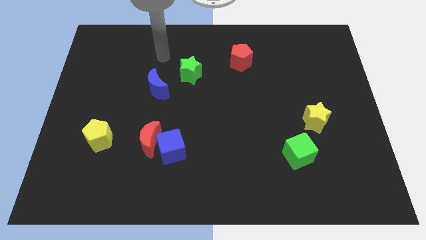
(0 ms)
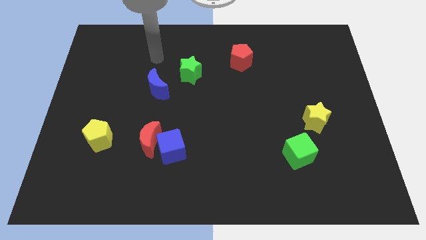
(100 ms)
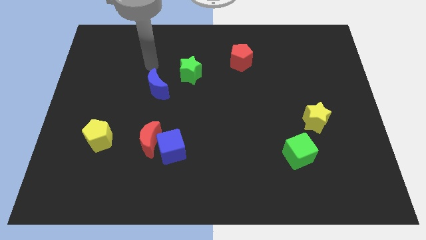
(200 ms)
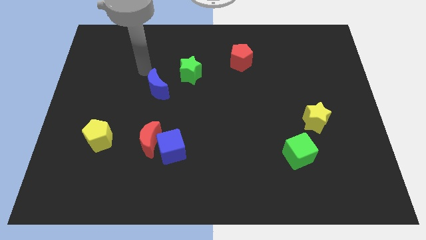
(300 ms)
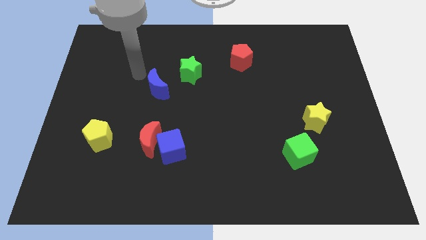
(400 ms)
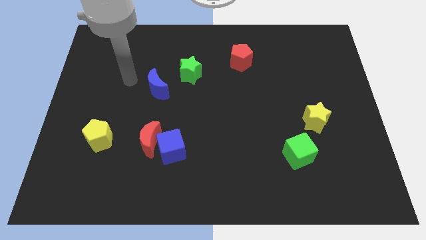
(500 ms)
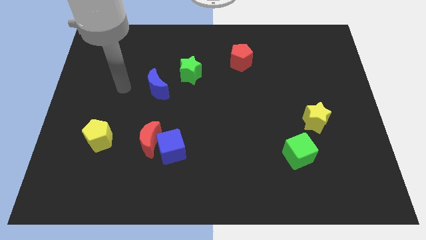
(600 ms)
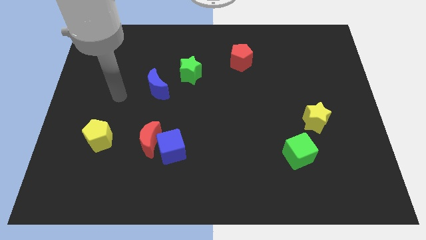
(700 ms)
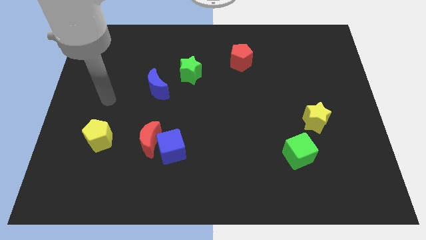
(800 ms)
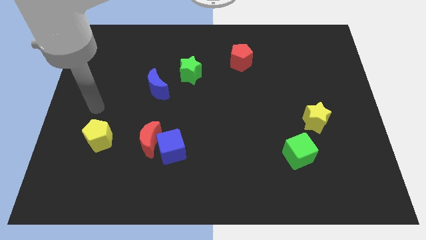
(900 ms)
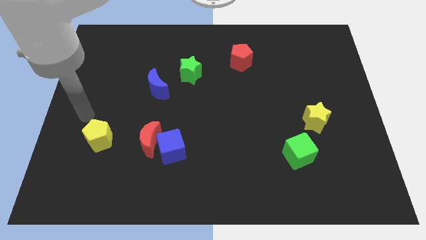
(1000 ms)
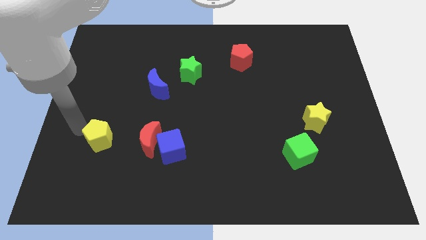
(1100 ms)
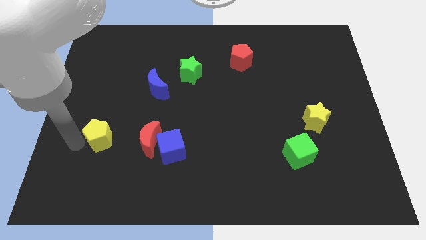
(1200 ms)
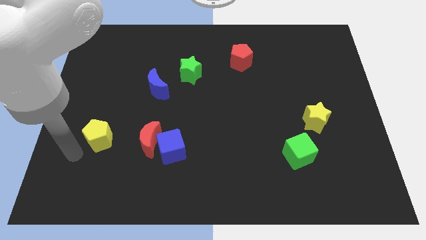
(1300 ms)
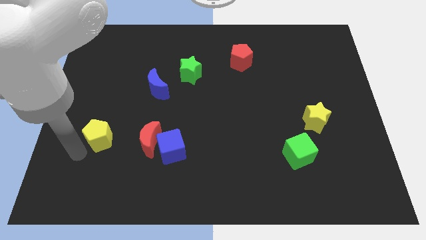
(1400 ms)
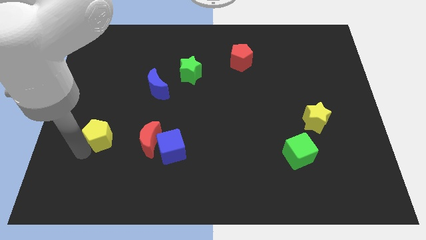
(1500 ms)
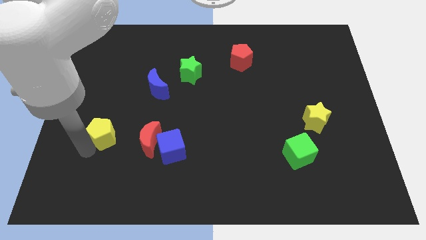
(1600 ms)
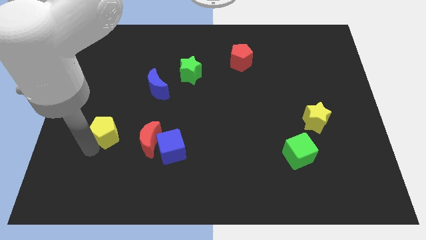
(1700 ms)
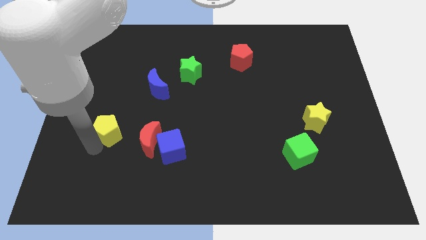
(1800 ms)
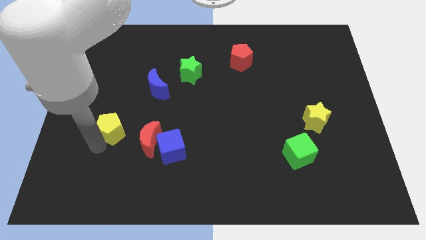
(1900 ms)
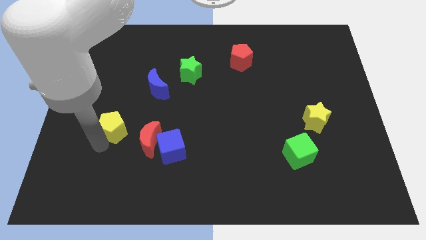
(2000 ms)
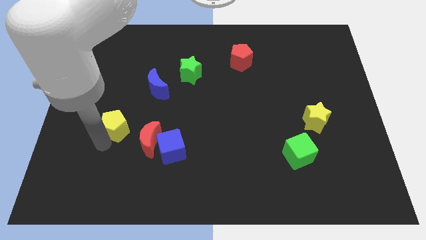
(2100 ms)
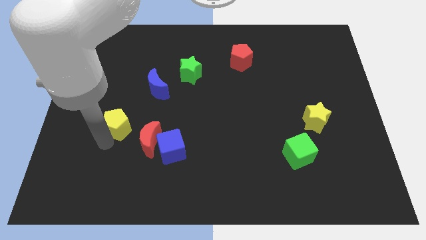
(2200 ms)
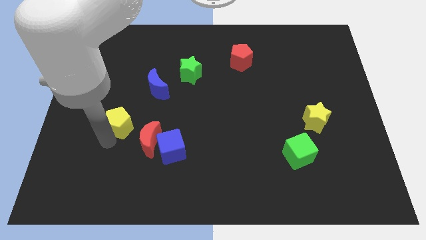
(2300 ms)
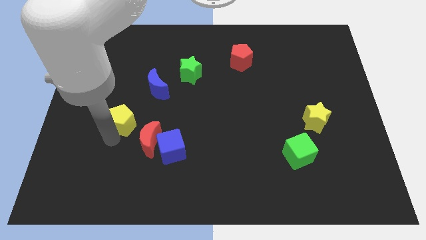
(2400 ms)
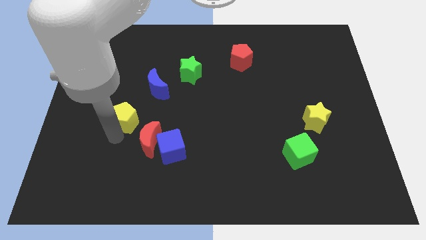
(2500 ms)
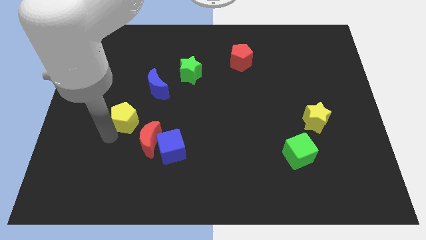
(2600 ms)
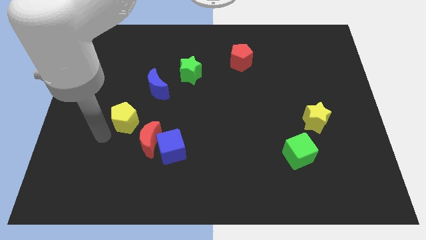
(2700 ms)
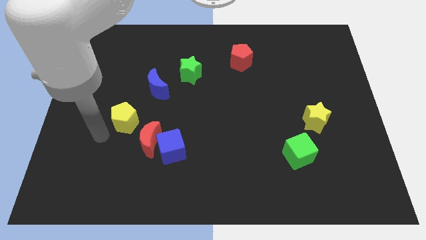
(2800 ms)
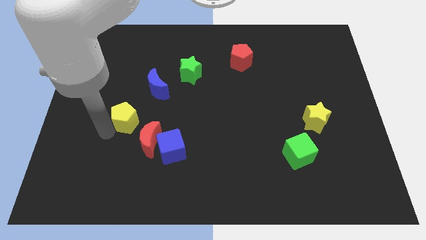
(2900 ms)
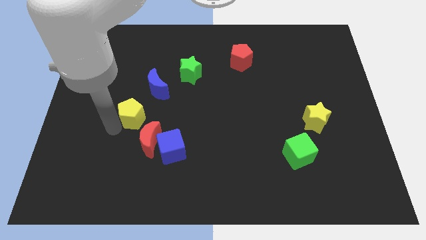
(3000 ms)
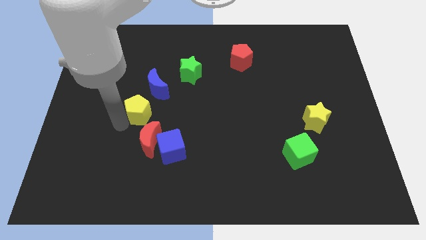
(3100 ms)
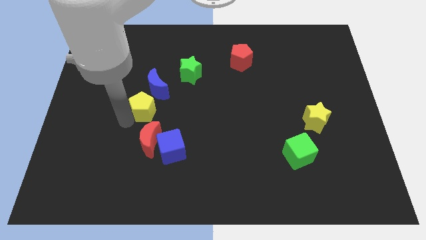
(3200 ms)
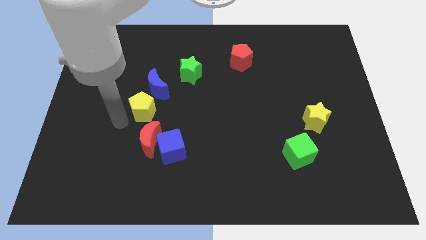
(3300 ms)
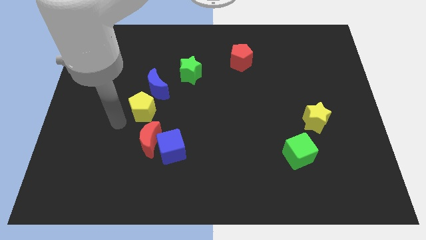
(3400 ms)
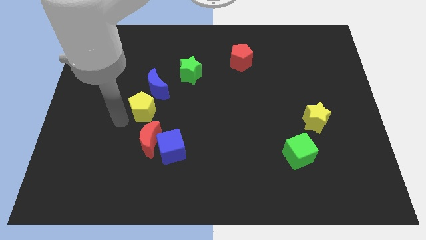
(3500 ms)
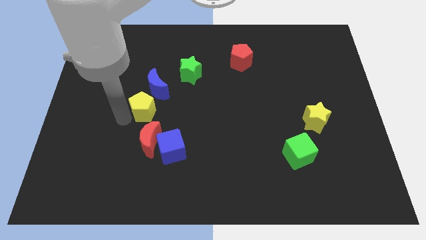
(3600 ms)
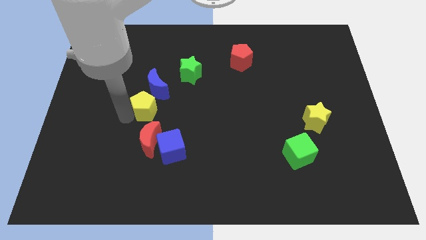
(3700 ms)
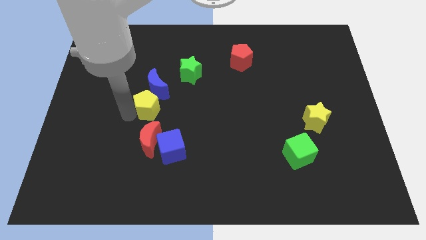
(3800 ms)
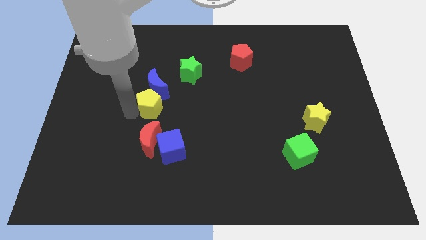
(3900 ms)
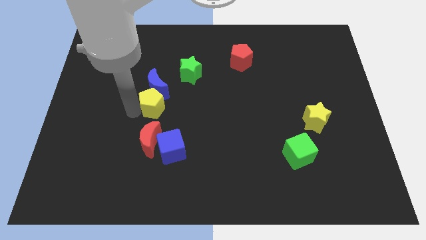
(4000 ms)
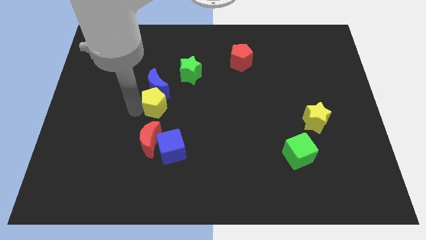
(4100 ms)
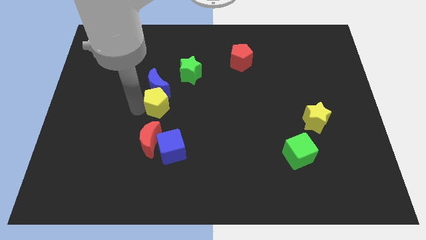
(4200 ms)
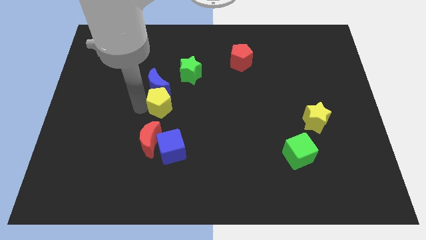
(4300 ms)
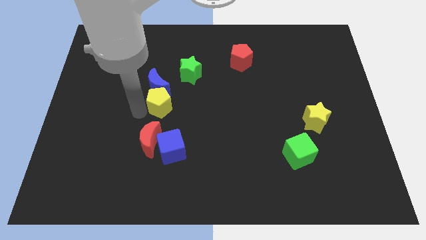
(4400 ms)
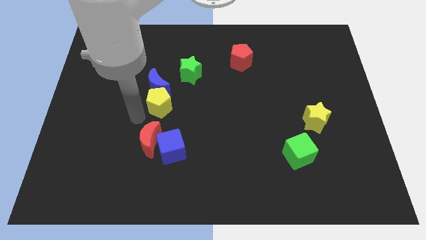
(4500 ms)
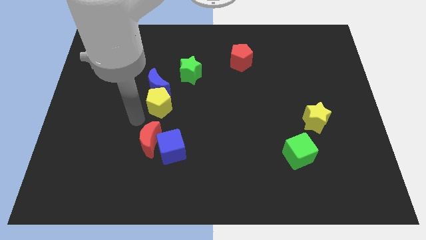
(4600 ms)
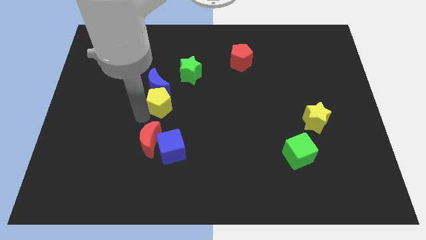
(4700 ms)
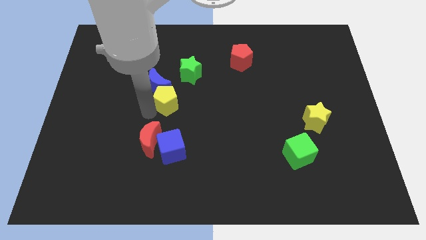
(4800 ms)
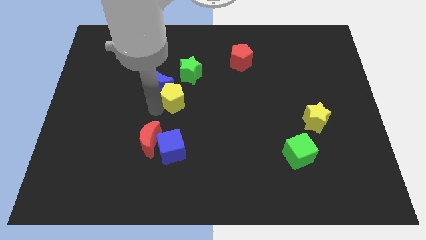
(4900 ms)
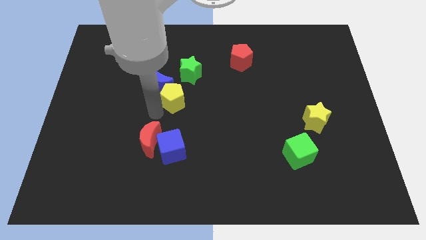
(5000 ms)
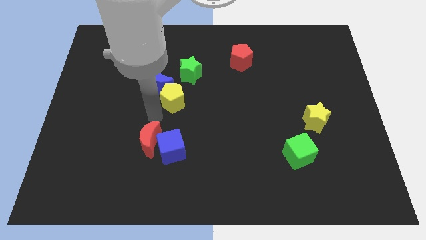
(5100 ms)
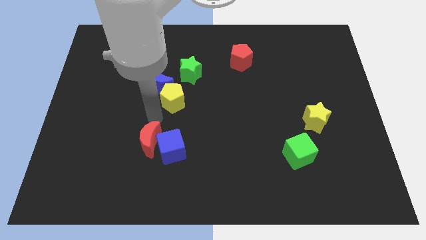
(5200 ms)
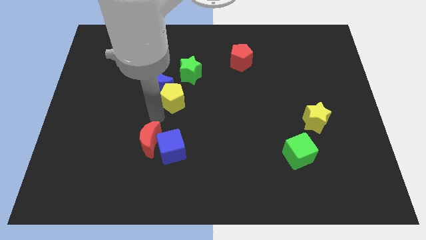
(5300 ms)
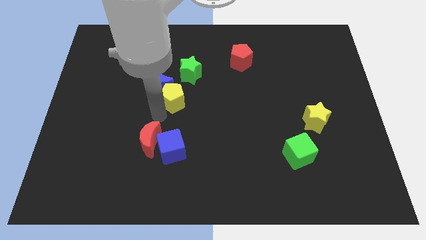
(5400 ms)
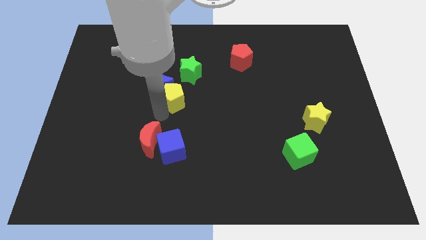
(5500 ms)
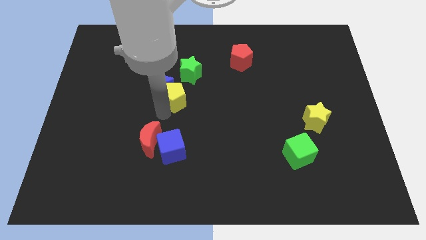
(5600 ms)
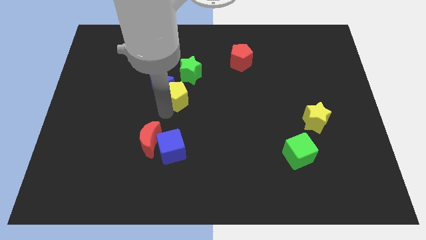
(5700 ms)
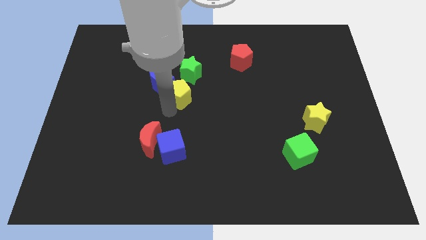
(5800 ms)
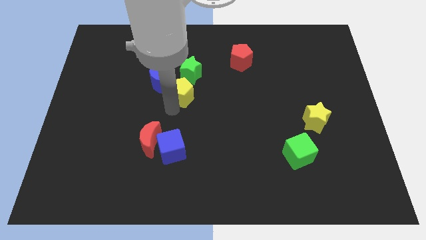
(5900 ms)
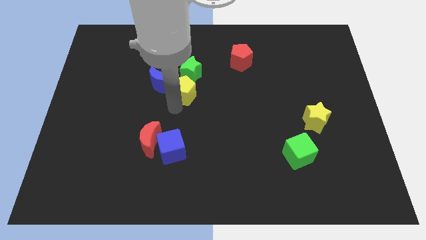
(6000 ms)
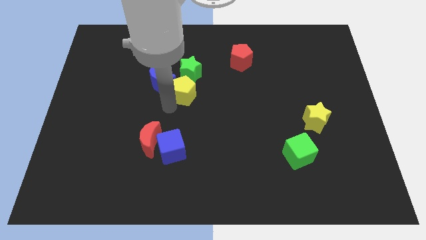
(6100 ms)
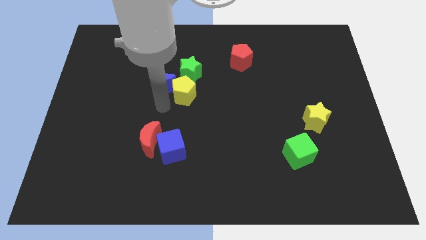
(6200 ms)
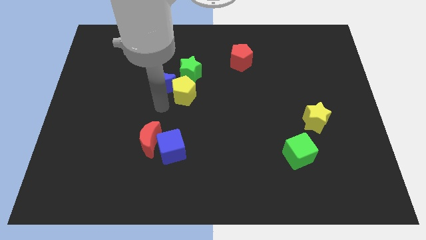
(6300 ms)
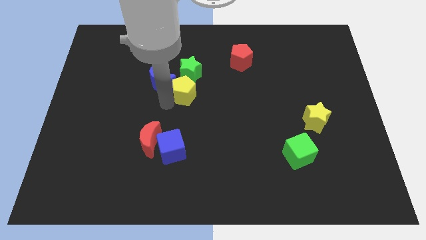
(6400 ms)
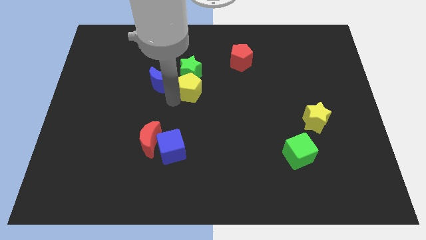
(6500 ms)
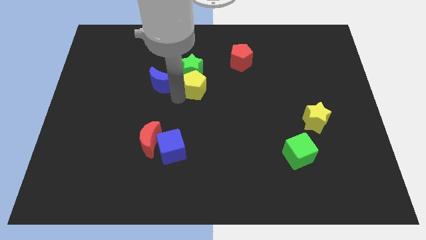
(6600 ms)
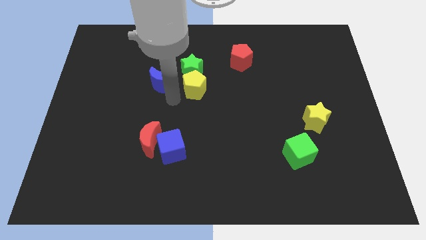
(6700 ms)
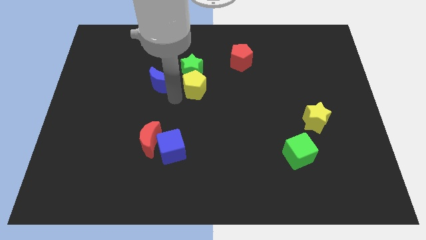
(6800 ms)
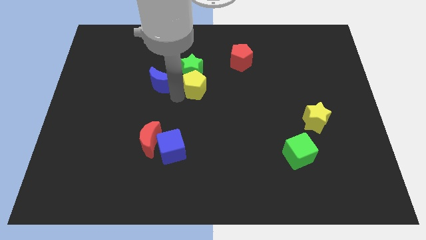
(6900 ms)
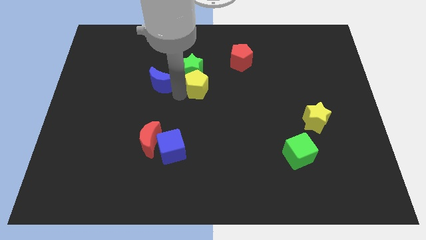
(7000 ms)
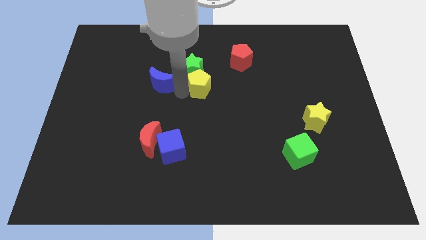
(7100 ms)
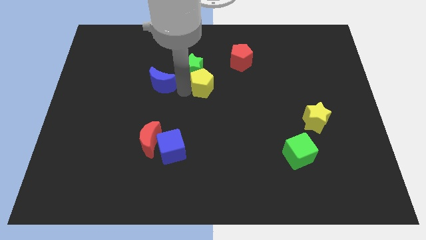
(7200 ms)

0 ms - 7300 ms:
slide the yellow pentagon to the bottom left side of the red pentagon

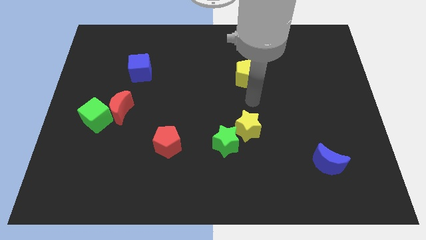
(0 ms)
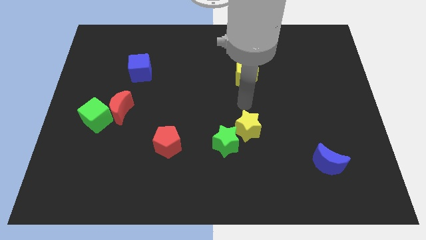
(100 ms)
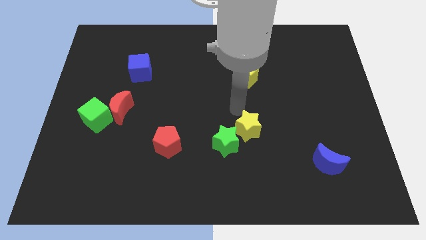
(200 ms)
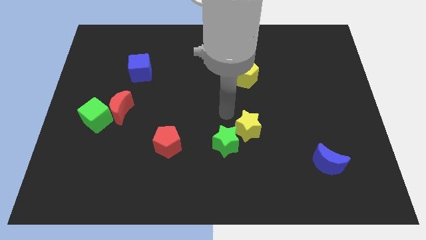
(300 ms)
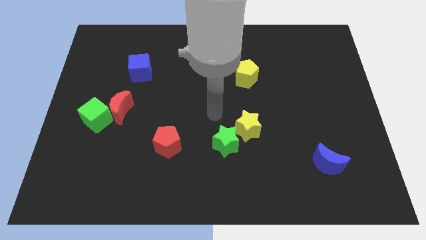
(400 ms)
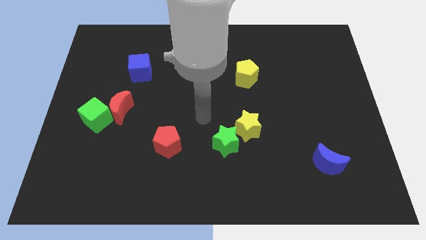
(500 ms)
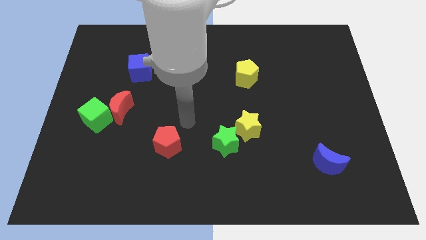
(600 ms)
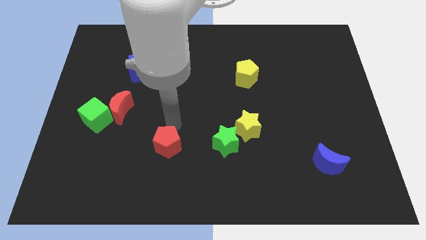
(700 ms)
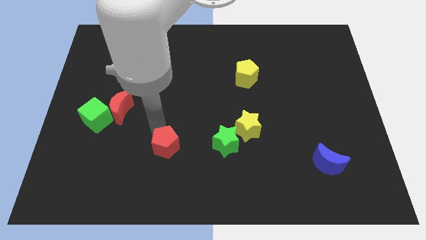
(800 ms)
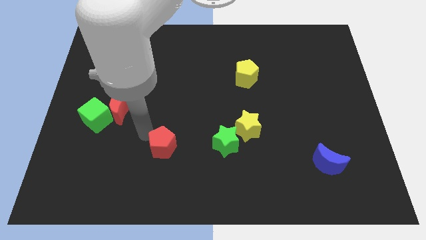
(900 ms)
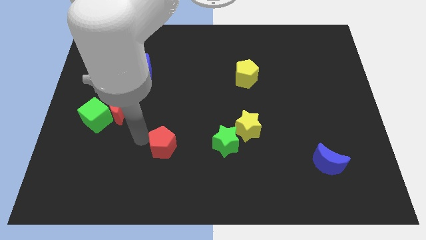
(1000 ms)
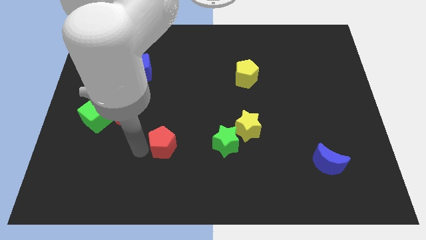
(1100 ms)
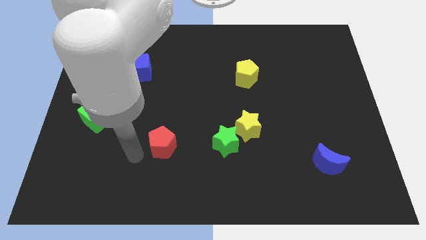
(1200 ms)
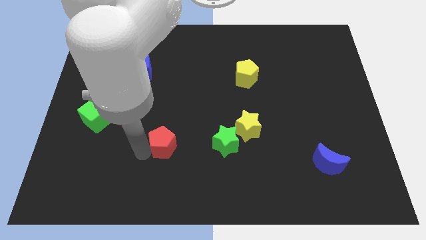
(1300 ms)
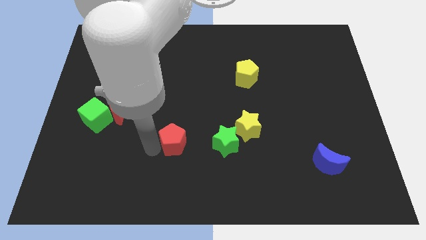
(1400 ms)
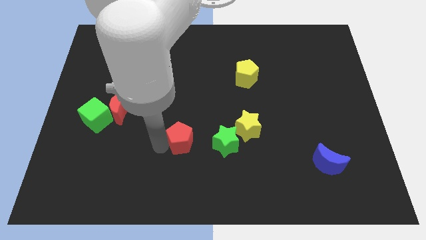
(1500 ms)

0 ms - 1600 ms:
push the red pentagon to the left side of the yellow star
